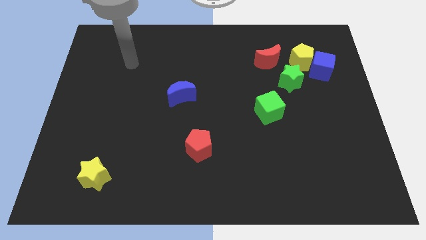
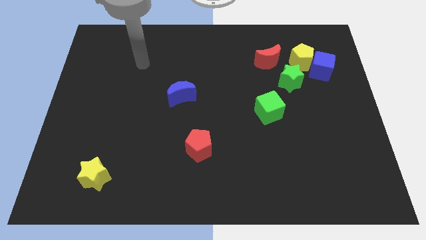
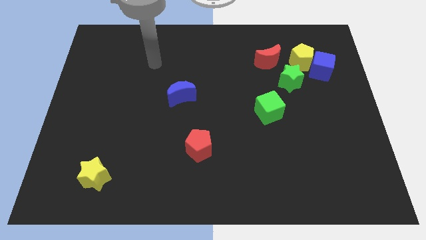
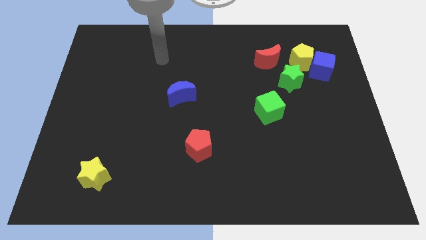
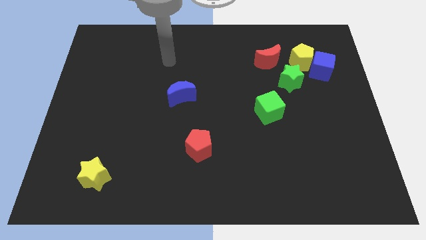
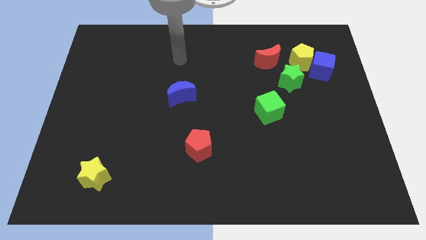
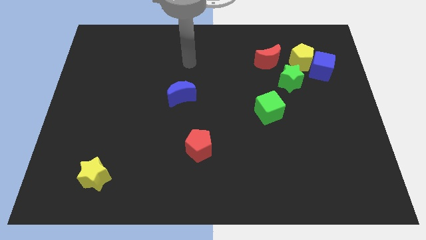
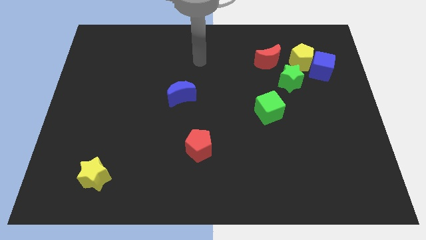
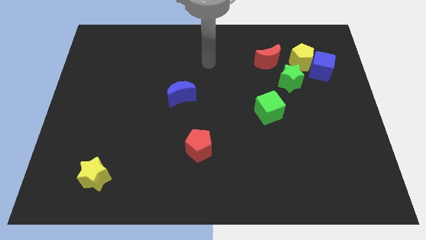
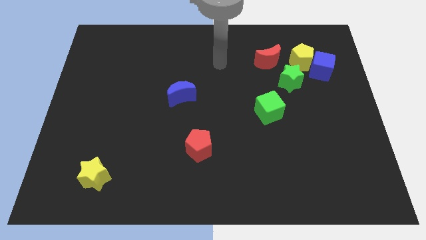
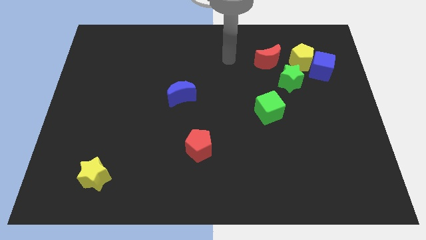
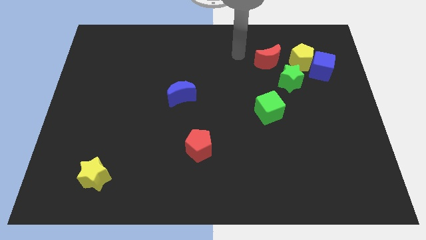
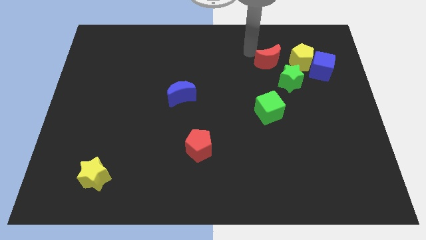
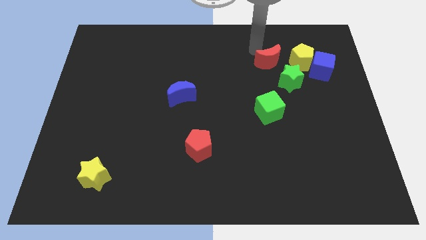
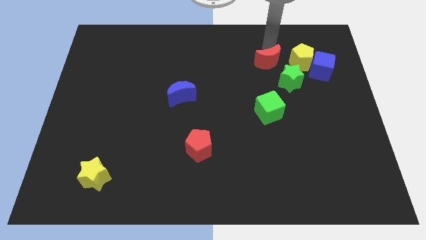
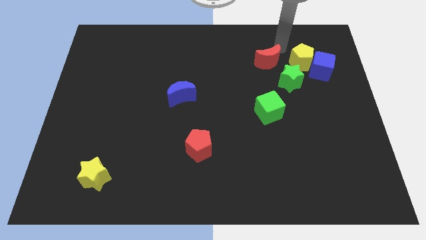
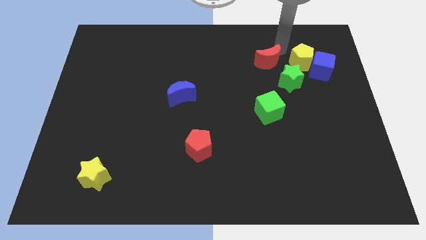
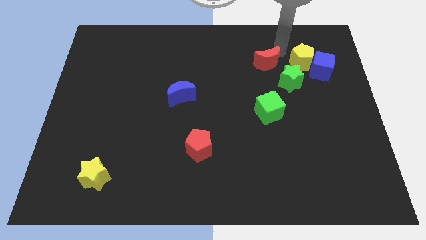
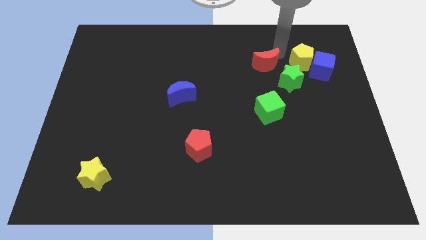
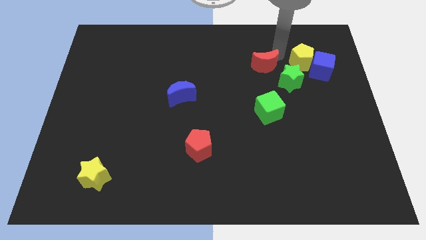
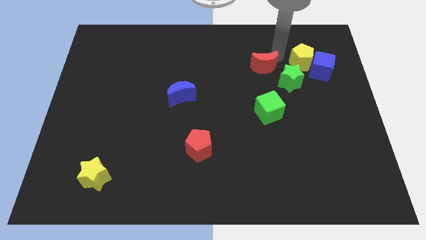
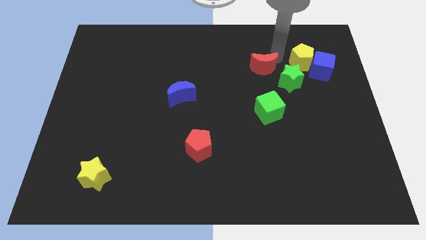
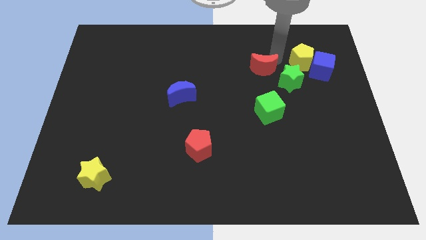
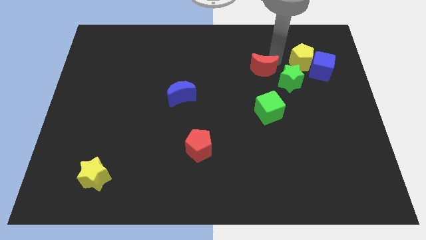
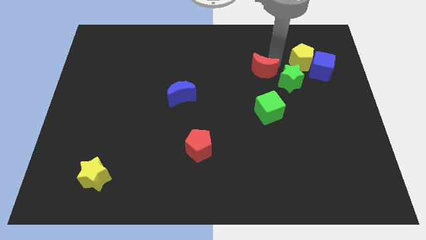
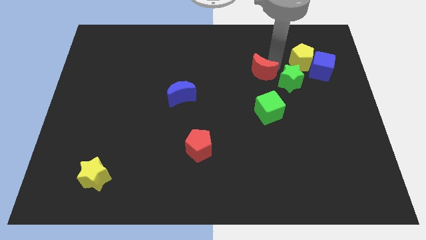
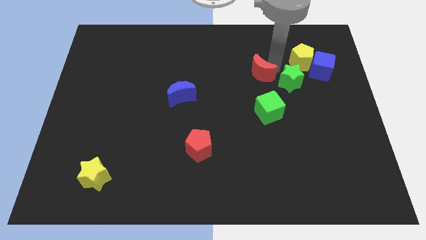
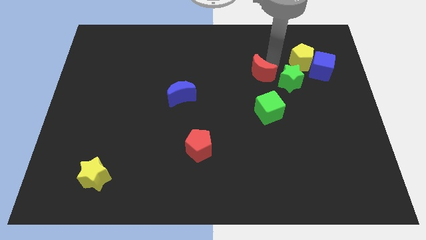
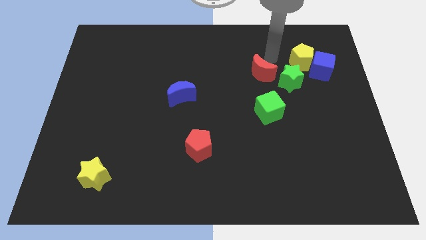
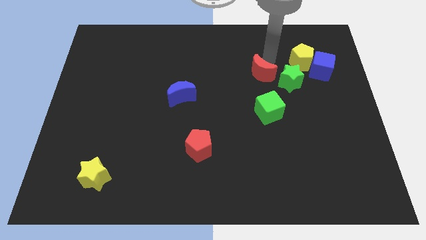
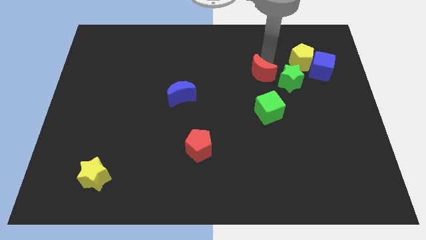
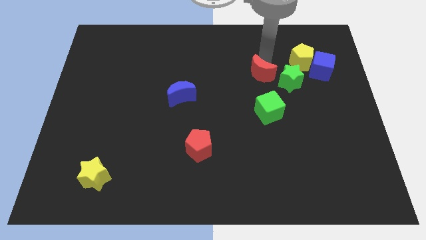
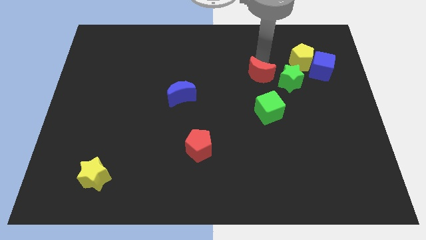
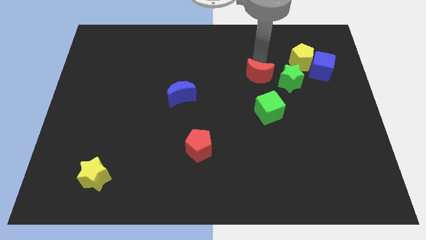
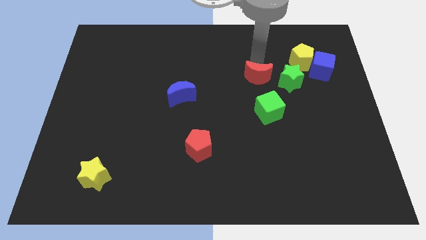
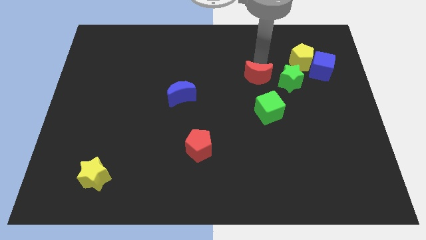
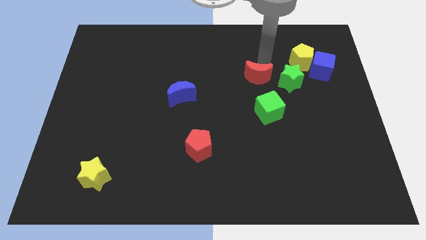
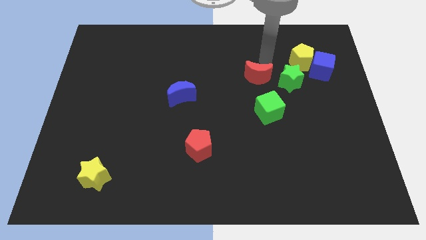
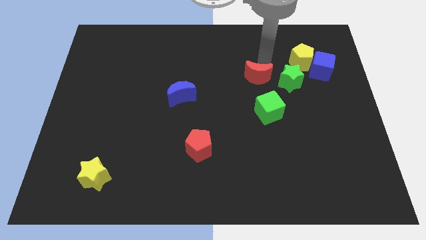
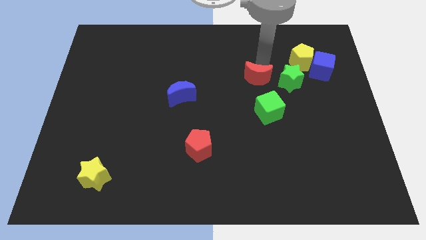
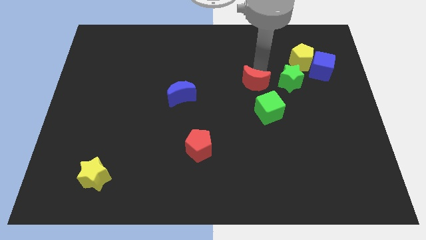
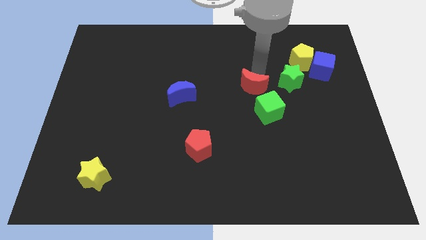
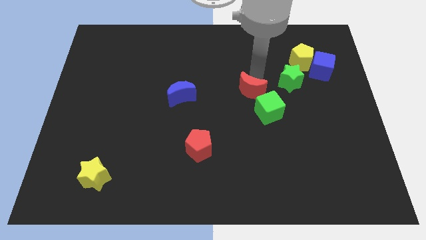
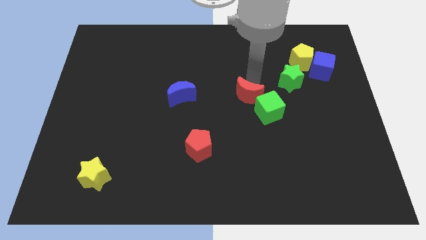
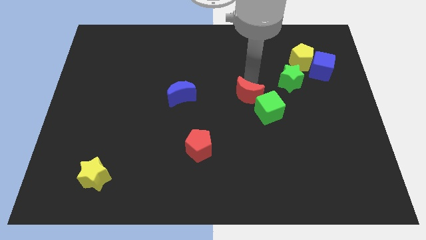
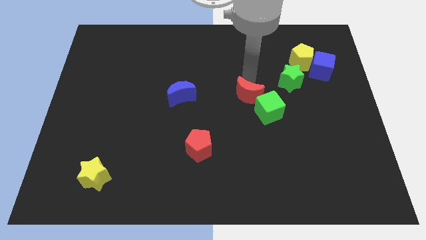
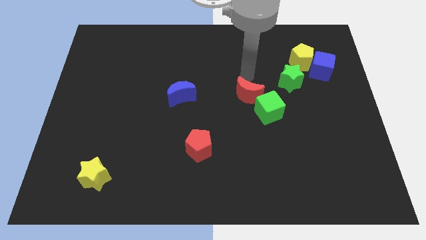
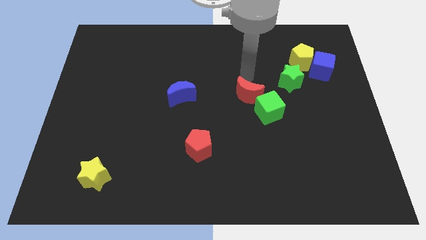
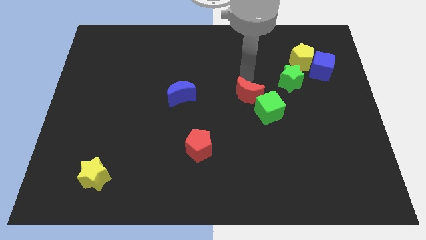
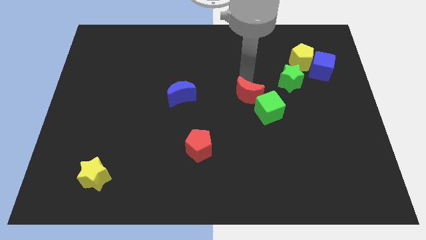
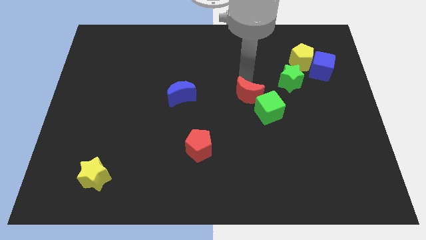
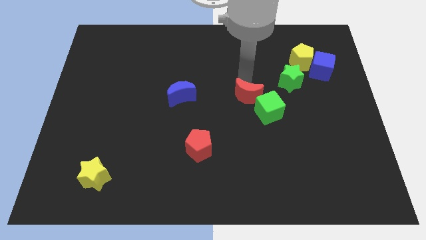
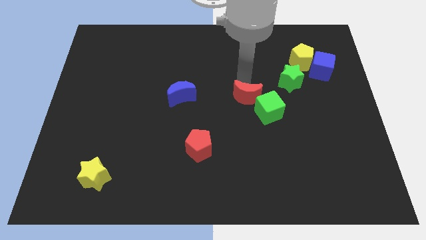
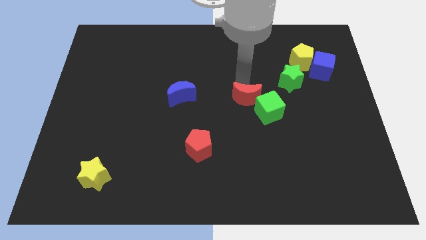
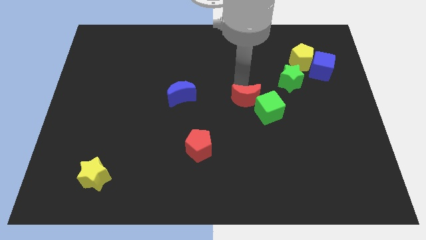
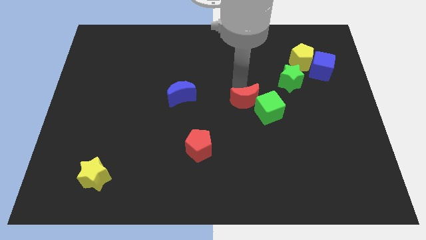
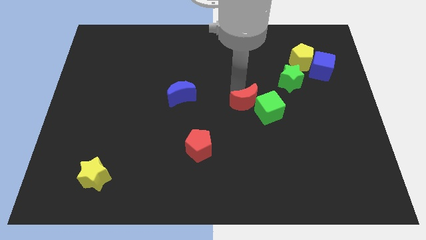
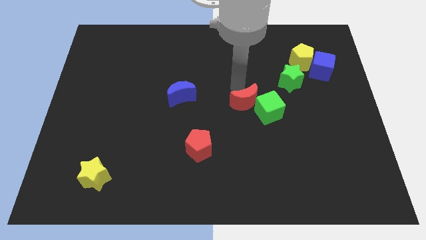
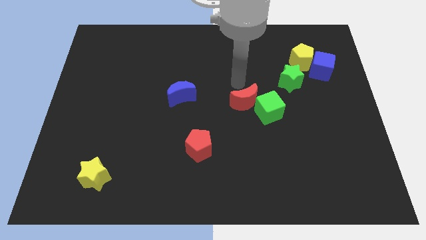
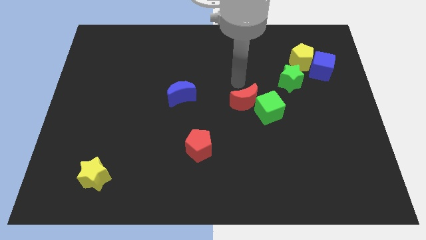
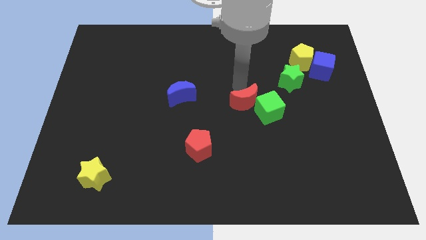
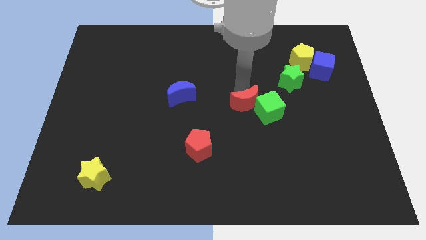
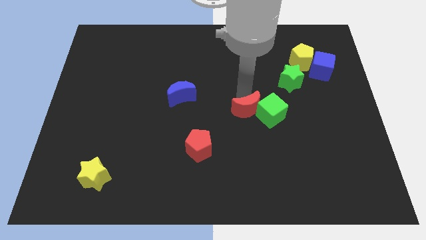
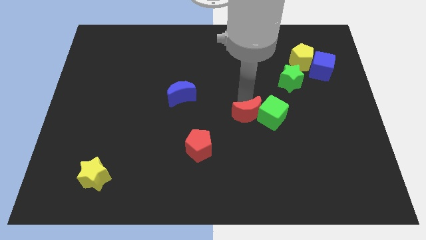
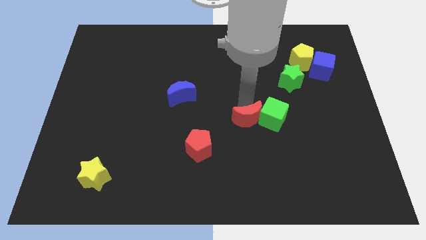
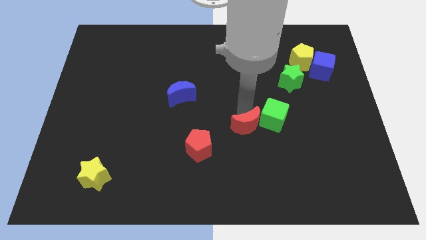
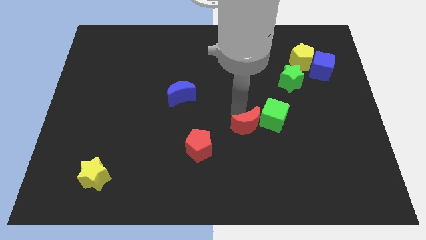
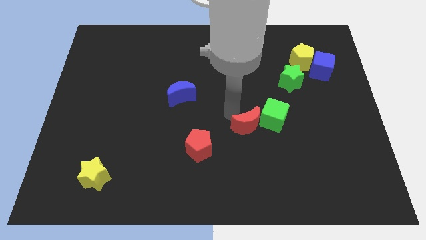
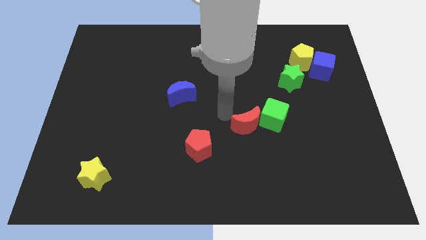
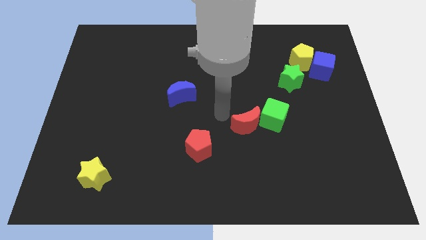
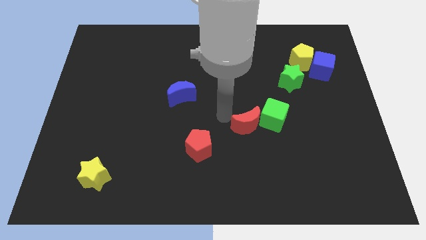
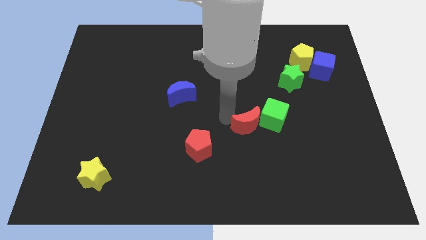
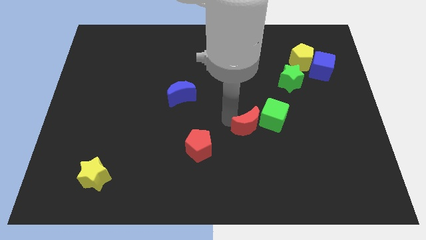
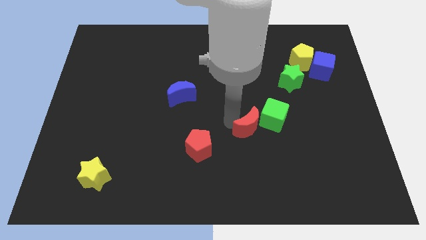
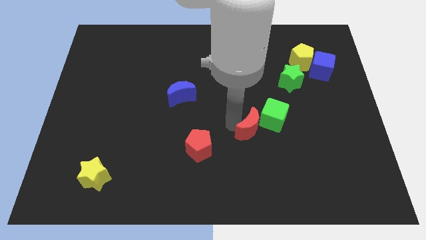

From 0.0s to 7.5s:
slide the red moon downwards

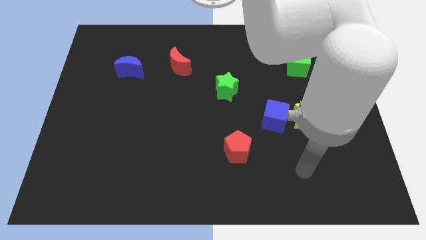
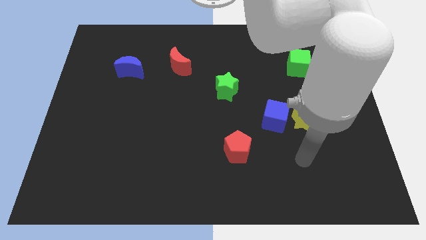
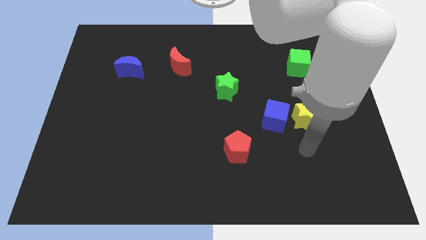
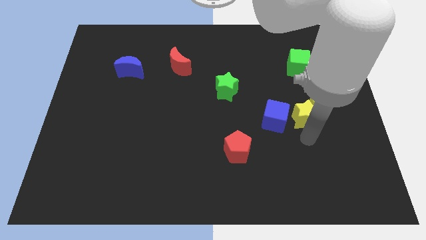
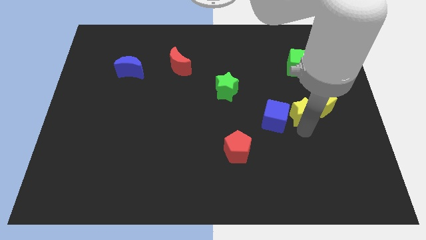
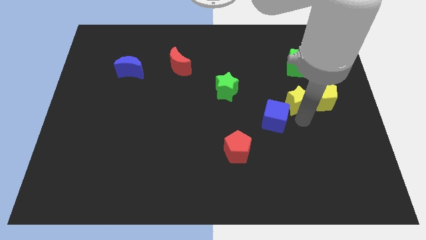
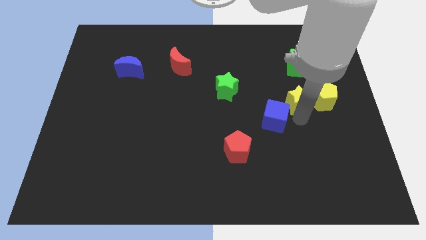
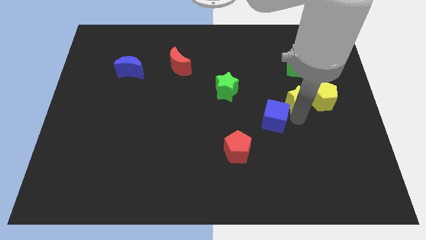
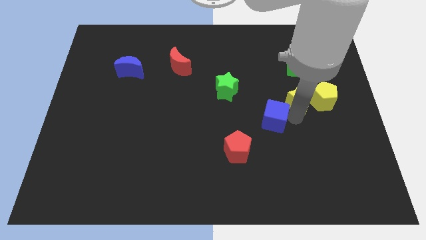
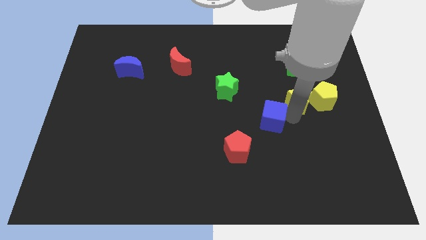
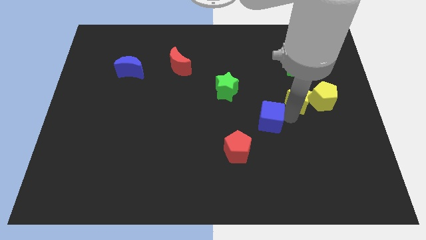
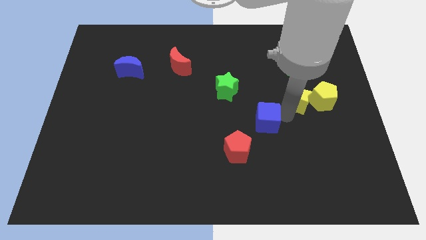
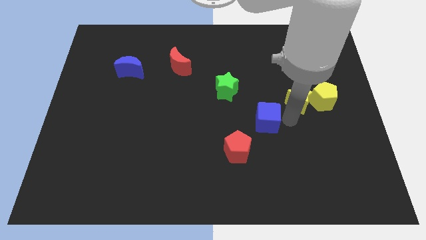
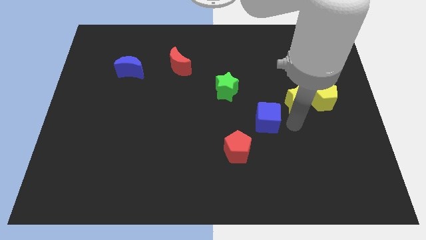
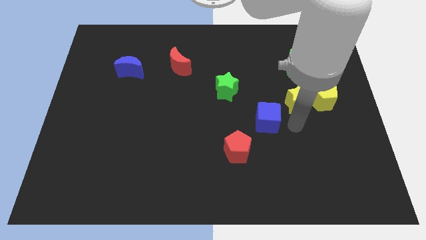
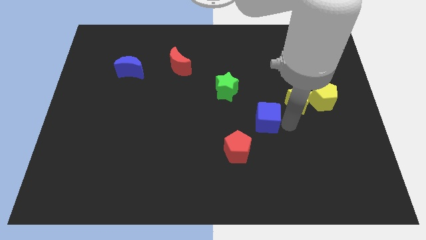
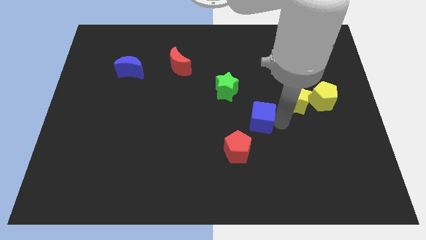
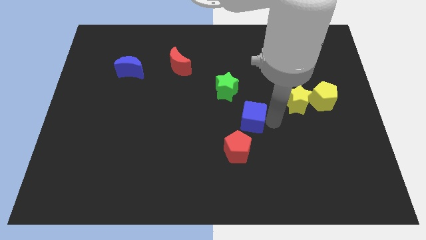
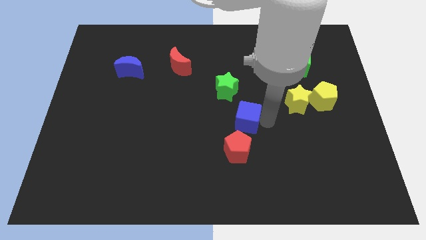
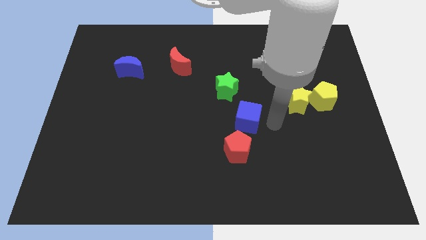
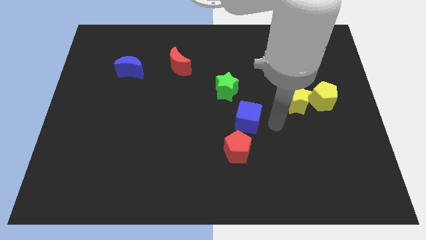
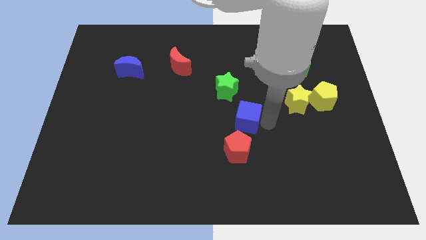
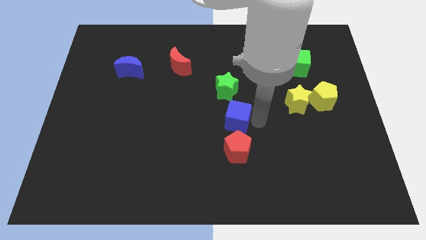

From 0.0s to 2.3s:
move the blue cube slightly to the left
